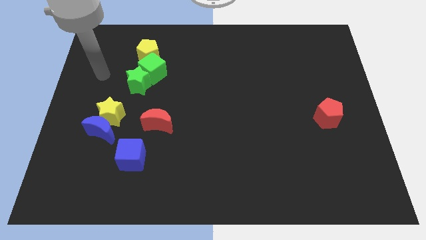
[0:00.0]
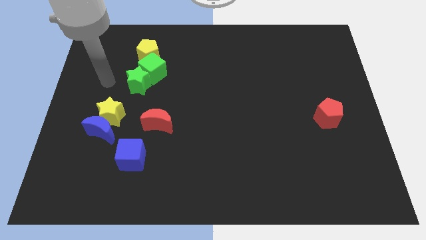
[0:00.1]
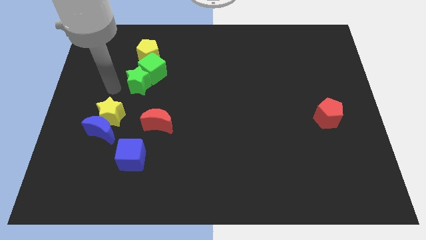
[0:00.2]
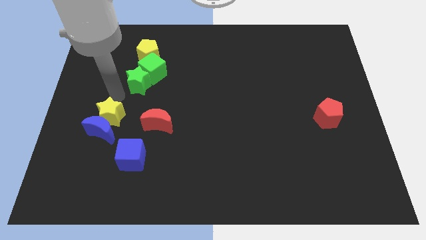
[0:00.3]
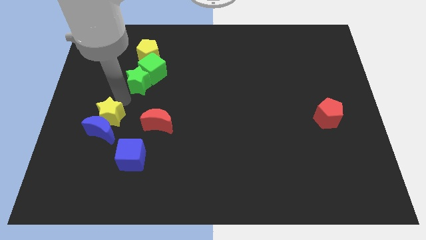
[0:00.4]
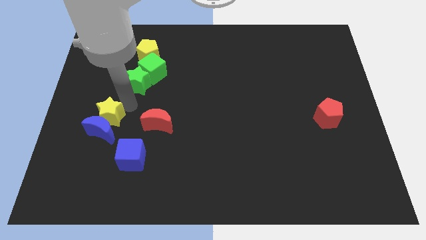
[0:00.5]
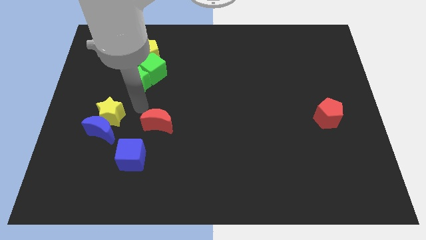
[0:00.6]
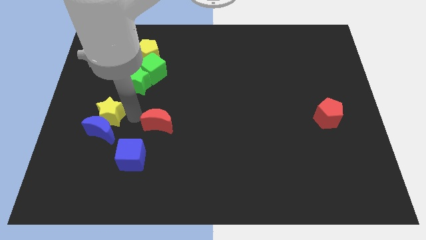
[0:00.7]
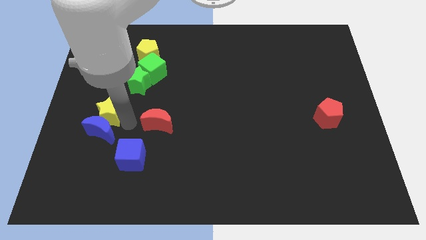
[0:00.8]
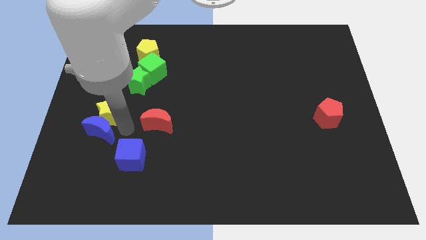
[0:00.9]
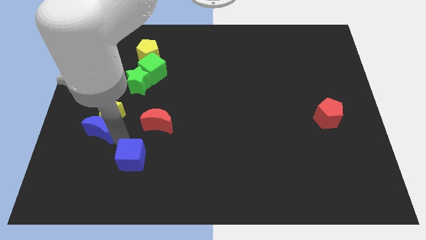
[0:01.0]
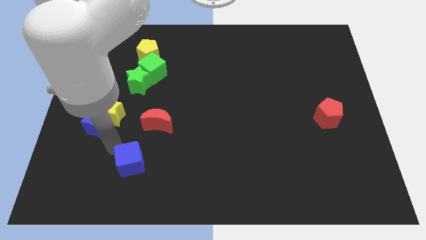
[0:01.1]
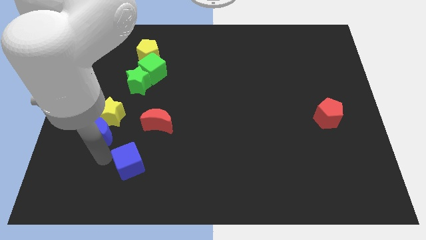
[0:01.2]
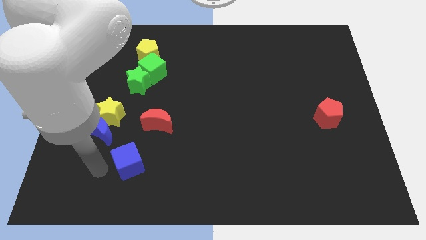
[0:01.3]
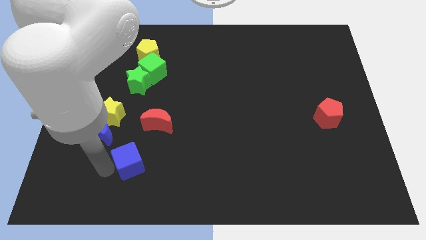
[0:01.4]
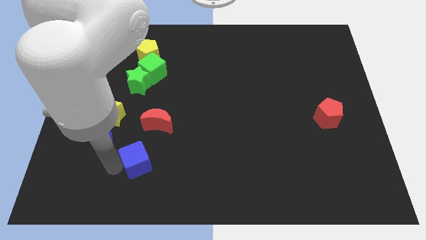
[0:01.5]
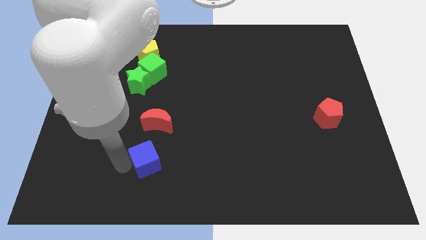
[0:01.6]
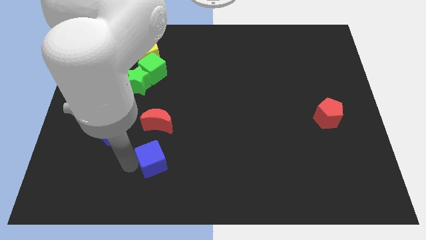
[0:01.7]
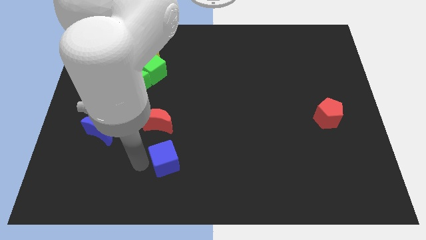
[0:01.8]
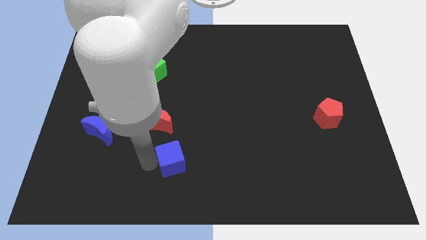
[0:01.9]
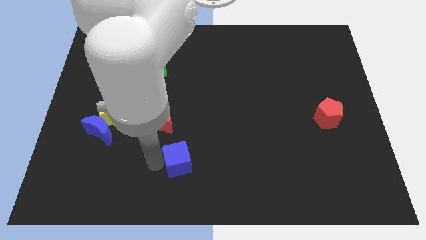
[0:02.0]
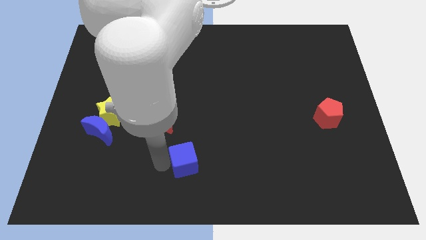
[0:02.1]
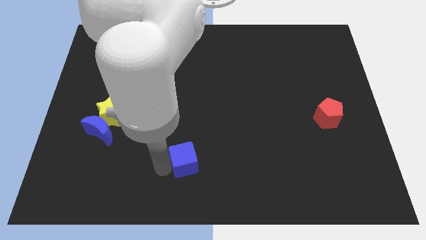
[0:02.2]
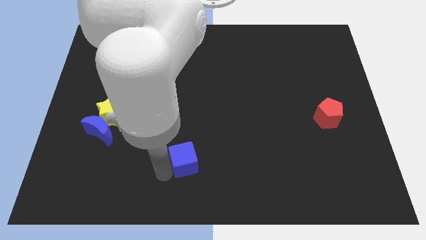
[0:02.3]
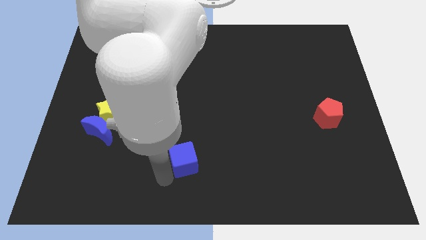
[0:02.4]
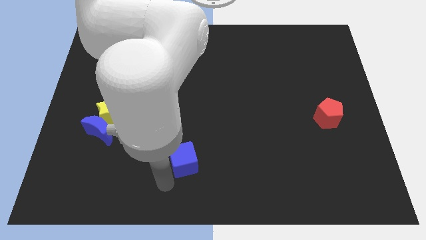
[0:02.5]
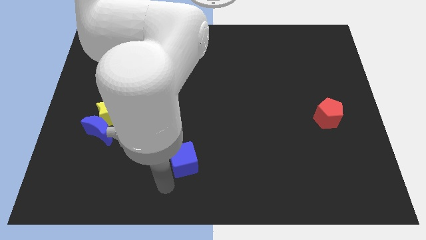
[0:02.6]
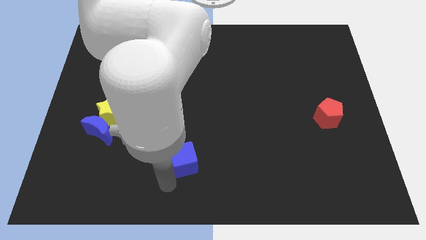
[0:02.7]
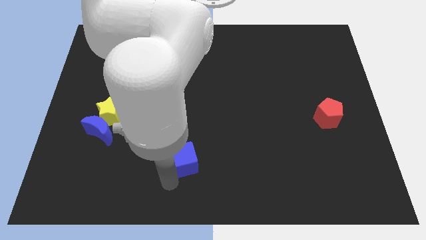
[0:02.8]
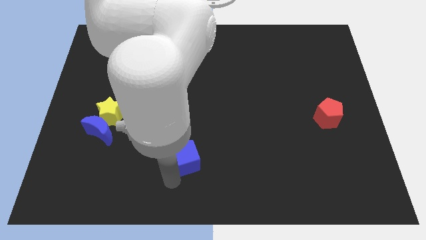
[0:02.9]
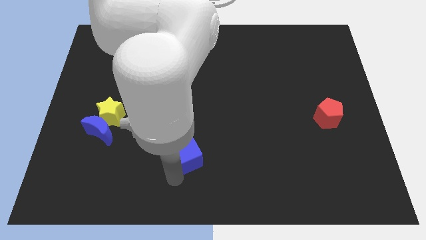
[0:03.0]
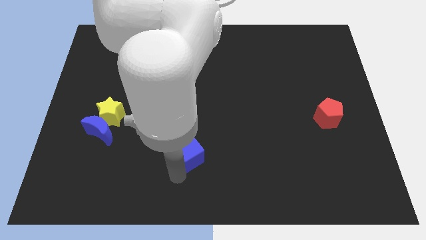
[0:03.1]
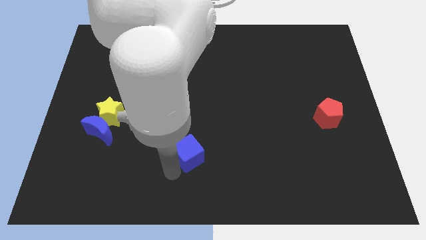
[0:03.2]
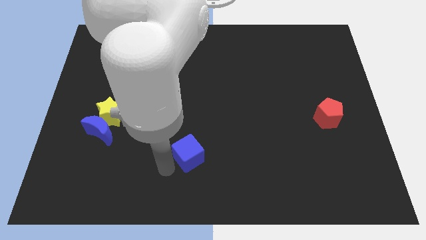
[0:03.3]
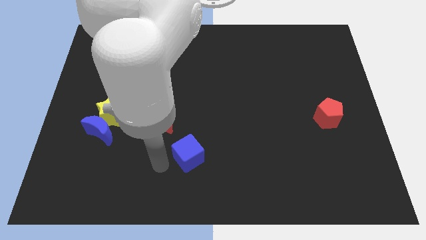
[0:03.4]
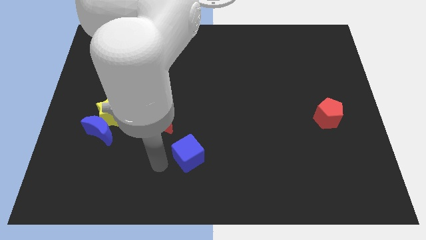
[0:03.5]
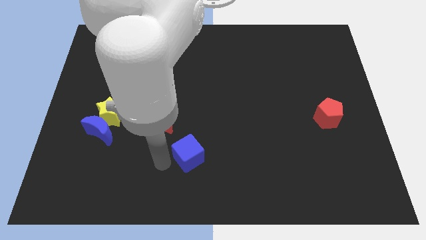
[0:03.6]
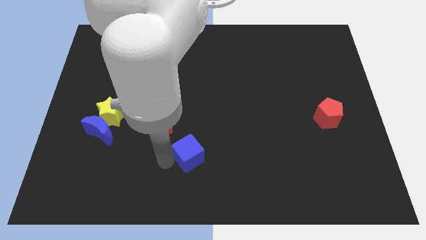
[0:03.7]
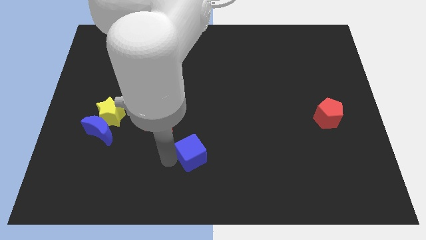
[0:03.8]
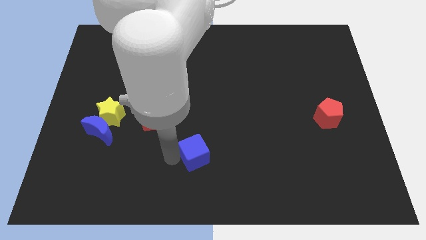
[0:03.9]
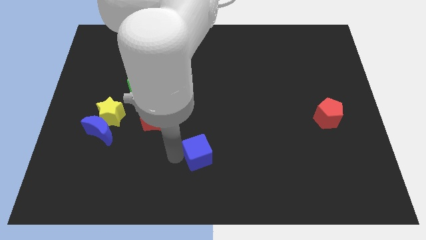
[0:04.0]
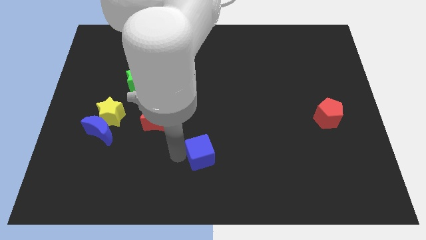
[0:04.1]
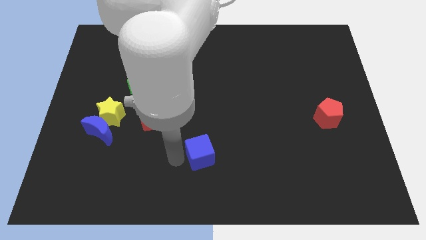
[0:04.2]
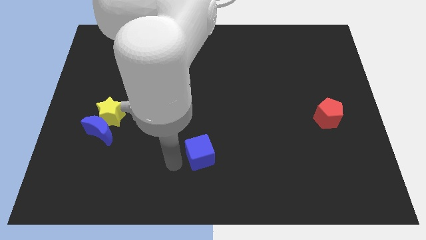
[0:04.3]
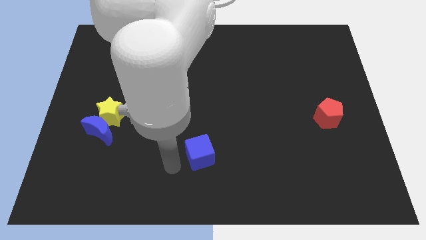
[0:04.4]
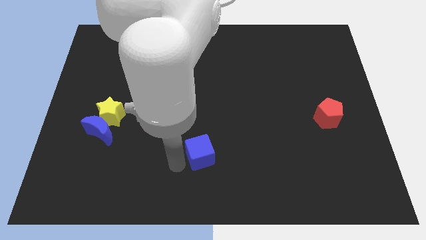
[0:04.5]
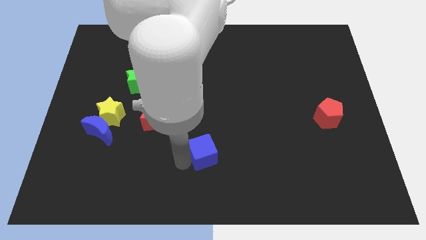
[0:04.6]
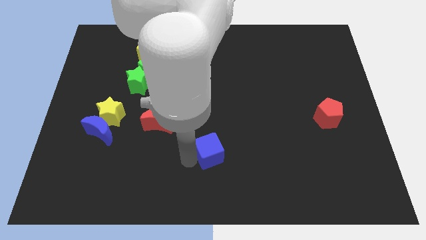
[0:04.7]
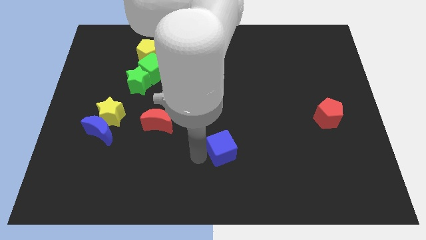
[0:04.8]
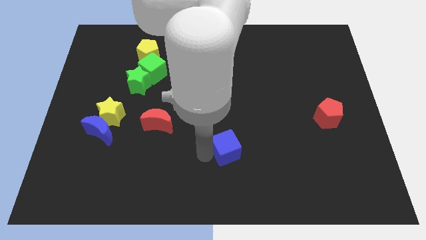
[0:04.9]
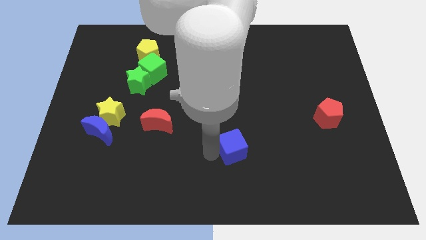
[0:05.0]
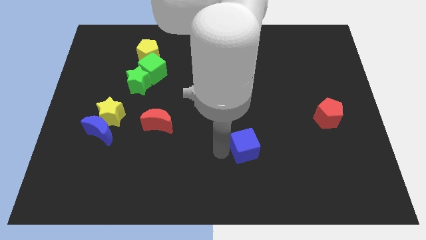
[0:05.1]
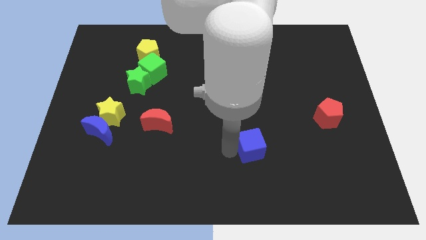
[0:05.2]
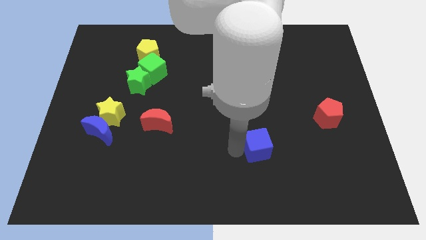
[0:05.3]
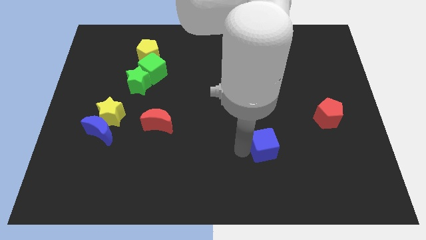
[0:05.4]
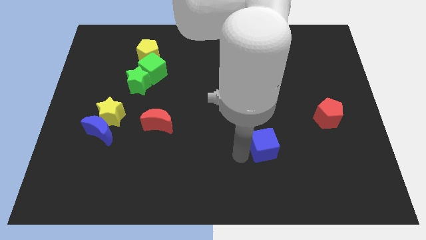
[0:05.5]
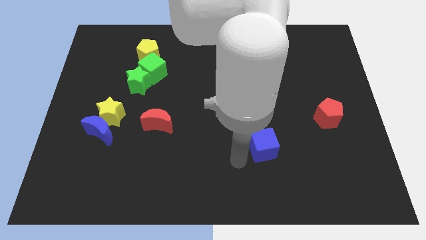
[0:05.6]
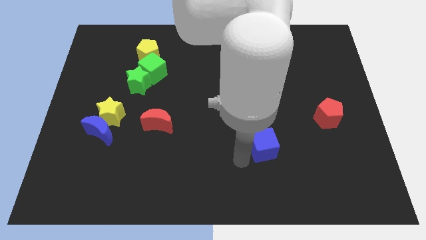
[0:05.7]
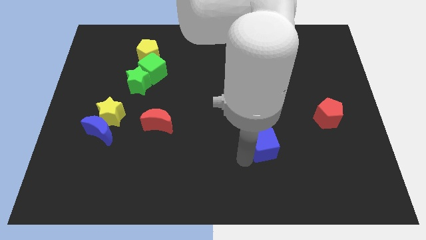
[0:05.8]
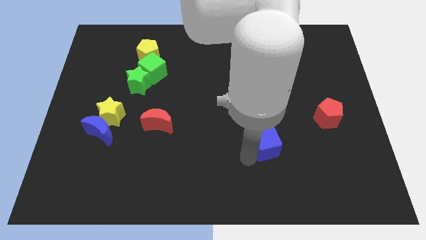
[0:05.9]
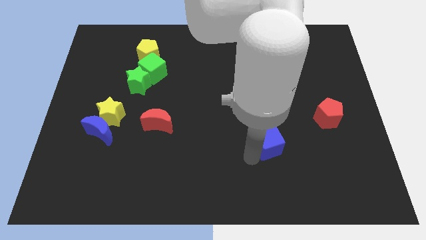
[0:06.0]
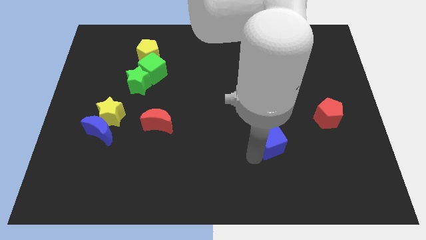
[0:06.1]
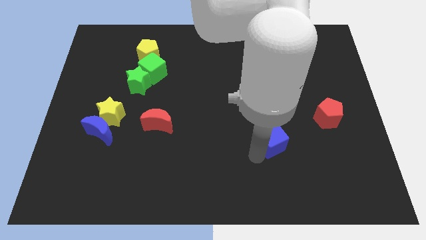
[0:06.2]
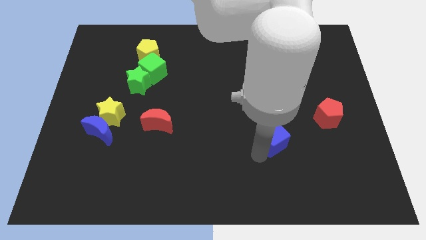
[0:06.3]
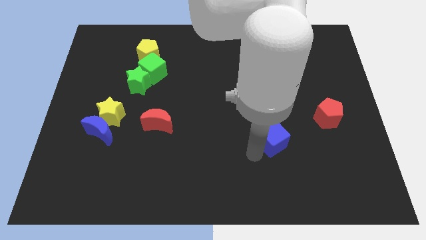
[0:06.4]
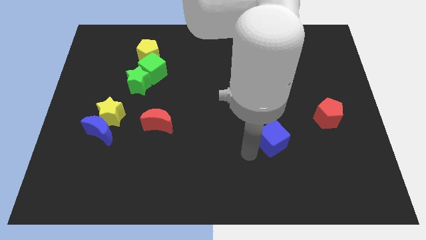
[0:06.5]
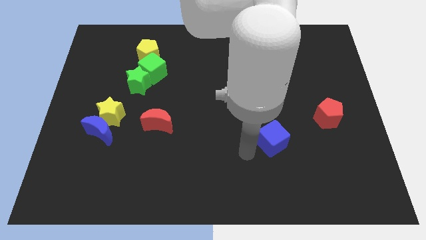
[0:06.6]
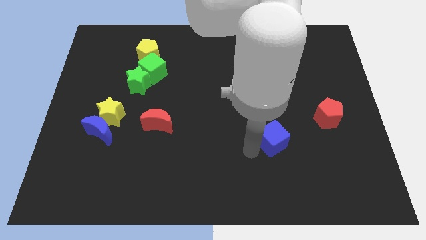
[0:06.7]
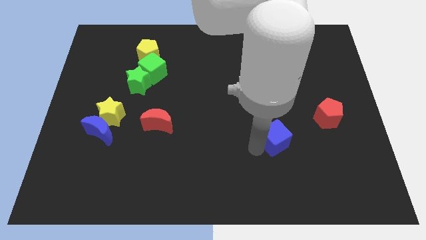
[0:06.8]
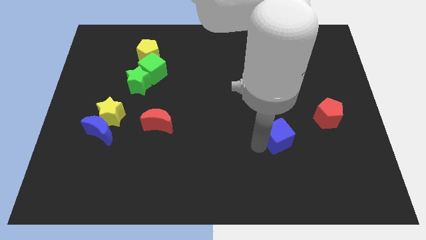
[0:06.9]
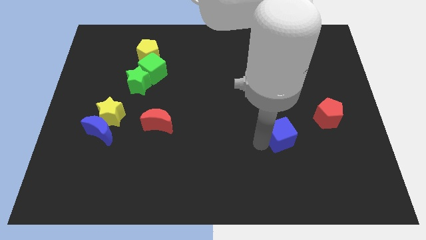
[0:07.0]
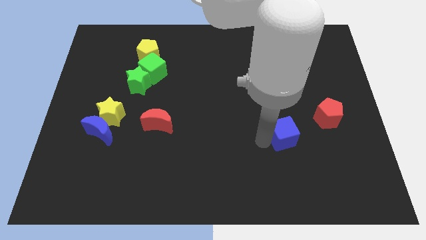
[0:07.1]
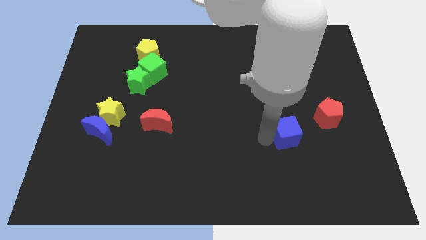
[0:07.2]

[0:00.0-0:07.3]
push the blue cube to the bottom left side of the red pentagon
